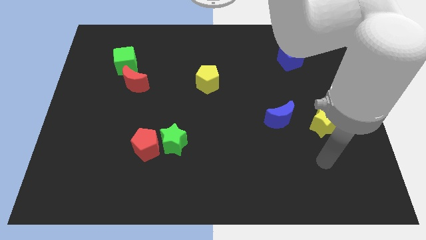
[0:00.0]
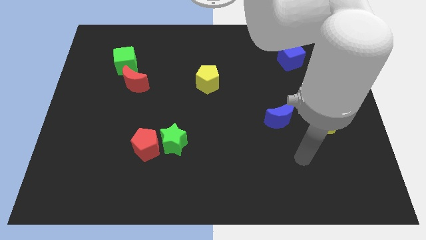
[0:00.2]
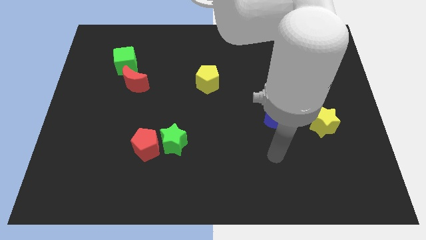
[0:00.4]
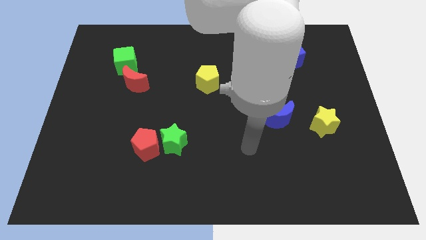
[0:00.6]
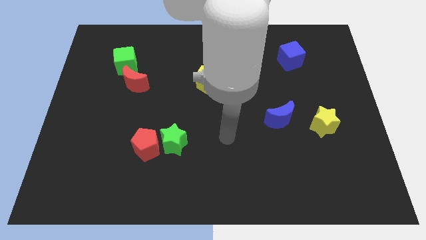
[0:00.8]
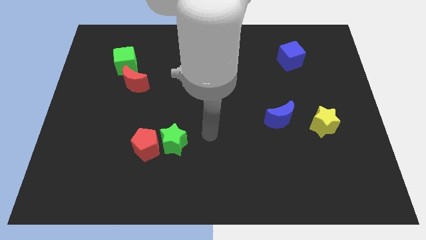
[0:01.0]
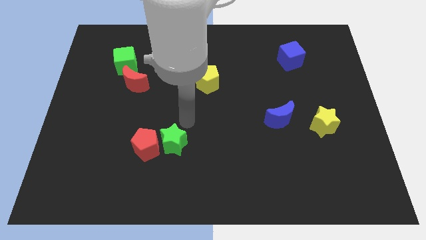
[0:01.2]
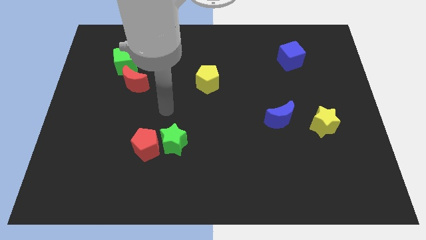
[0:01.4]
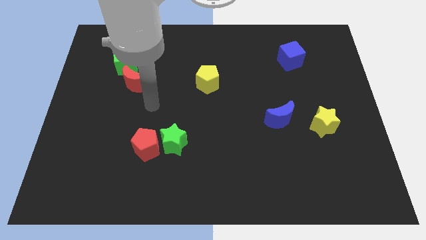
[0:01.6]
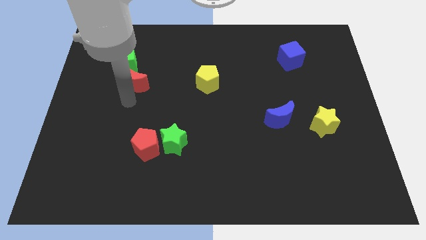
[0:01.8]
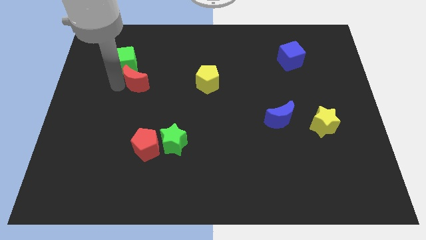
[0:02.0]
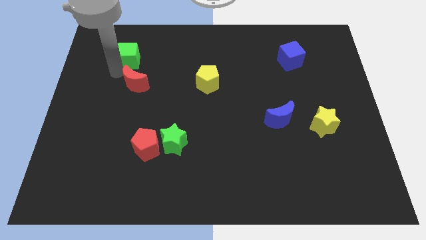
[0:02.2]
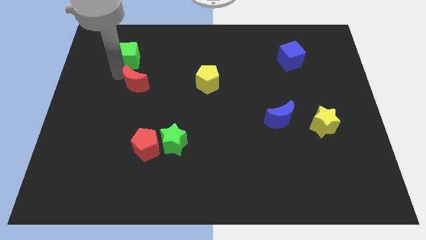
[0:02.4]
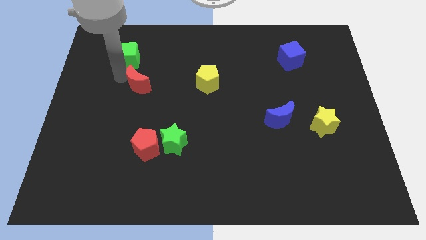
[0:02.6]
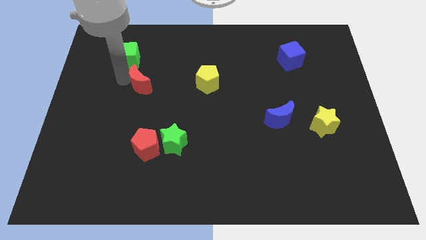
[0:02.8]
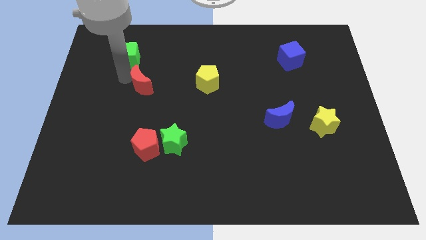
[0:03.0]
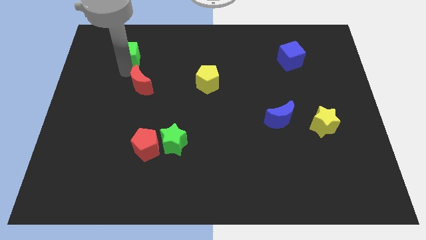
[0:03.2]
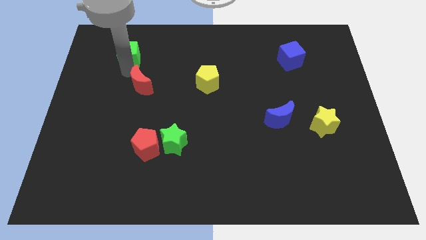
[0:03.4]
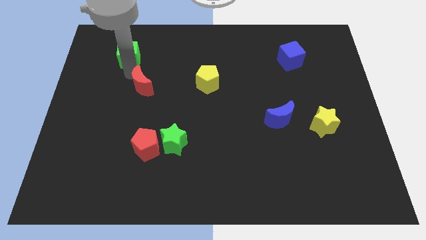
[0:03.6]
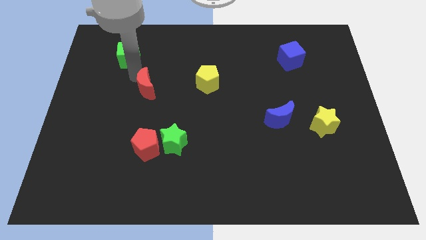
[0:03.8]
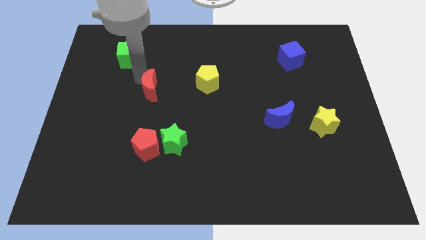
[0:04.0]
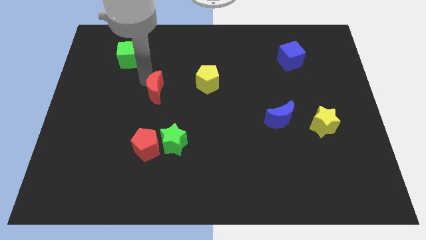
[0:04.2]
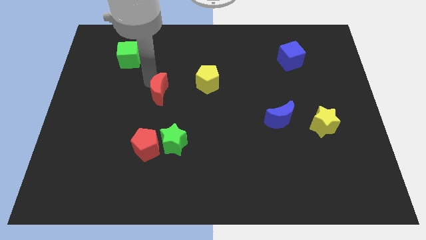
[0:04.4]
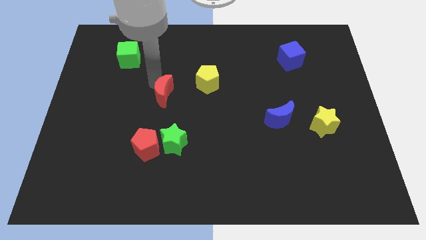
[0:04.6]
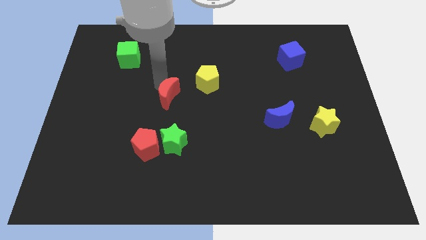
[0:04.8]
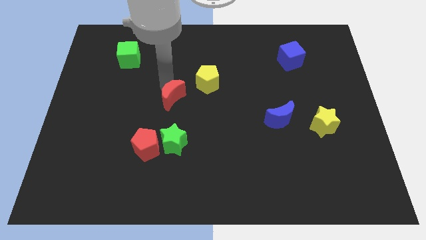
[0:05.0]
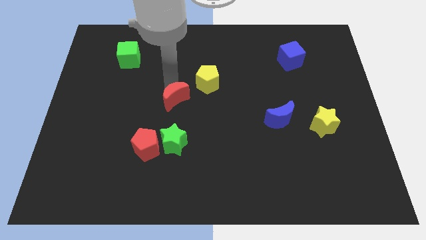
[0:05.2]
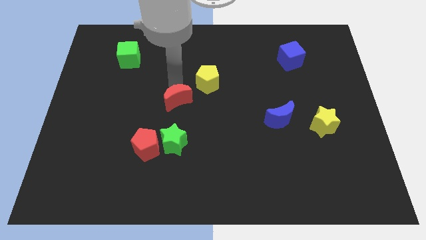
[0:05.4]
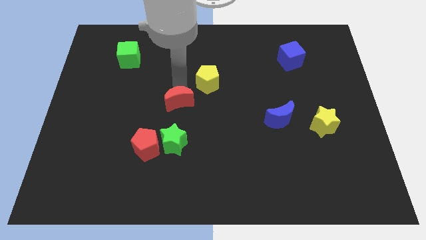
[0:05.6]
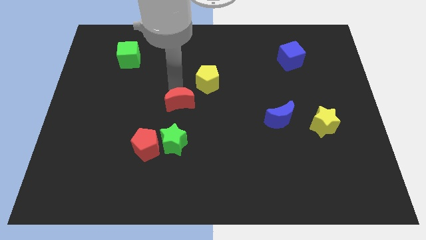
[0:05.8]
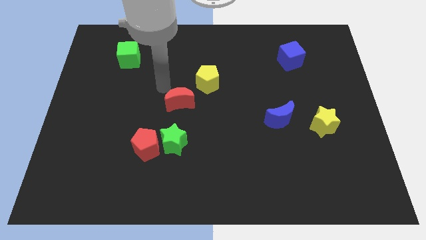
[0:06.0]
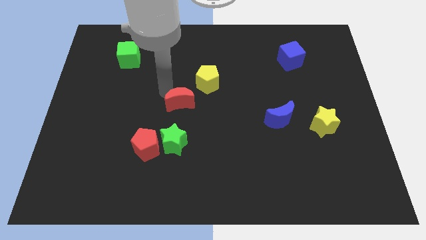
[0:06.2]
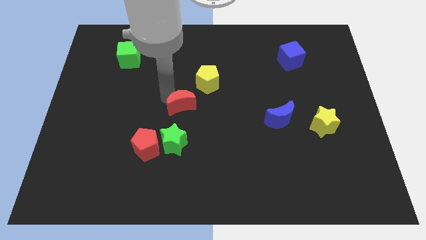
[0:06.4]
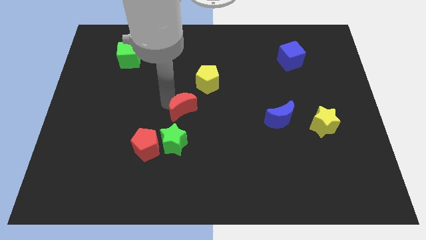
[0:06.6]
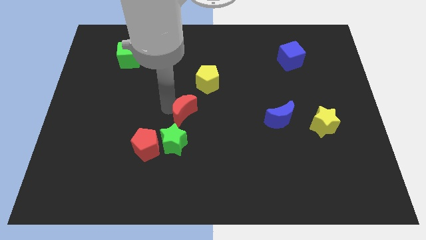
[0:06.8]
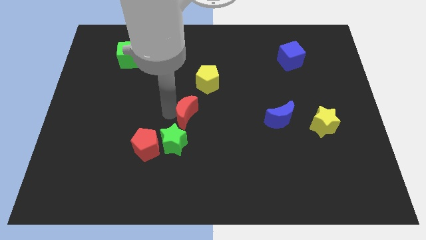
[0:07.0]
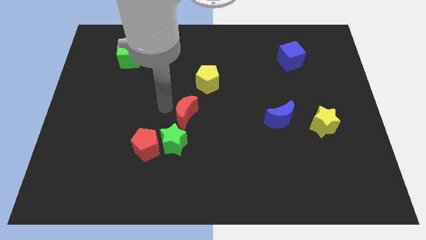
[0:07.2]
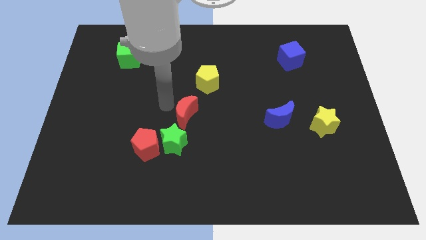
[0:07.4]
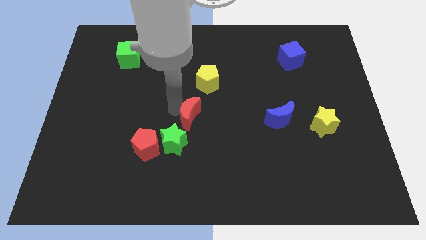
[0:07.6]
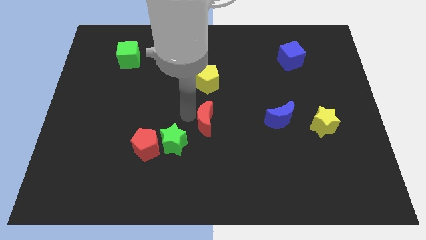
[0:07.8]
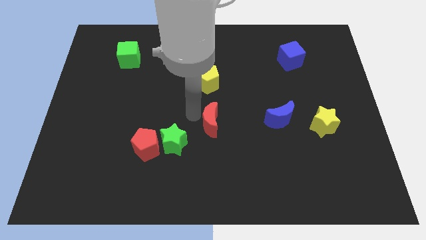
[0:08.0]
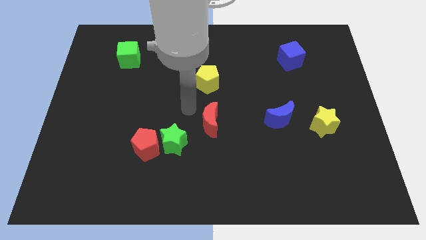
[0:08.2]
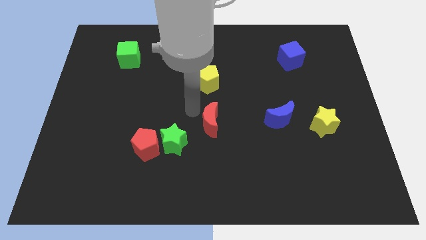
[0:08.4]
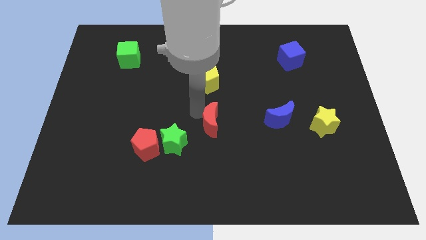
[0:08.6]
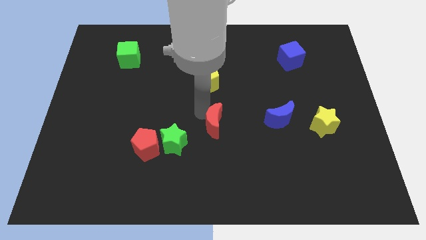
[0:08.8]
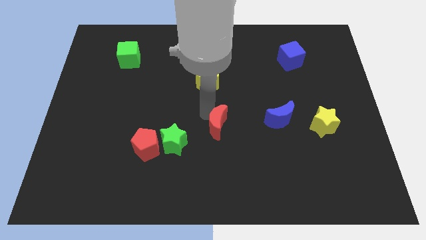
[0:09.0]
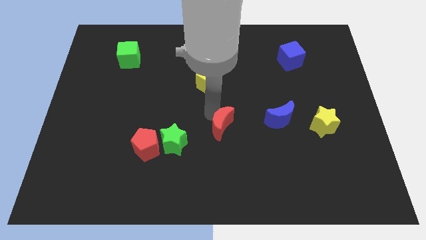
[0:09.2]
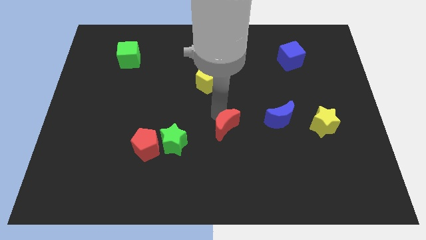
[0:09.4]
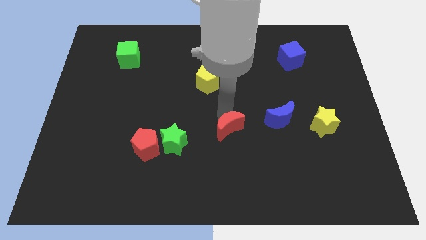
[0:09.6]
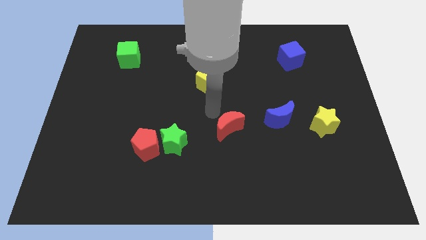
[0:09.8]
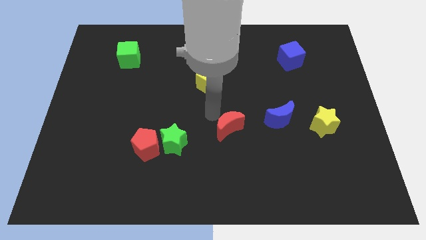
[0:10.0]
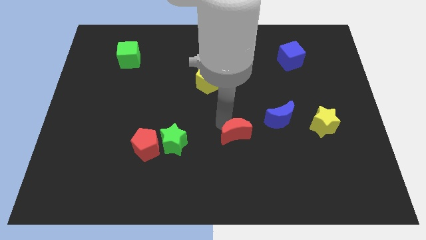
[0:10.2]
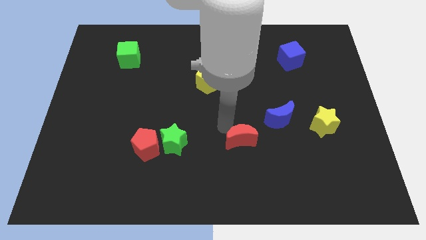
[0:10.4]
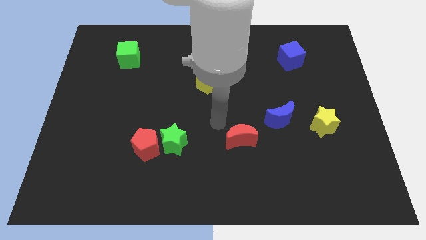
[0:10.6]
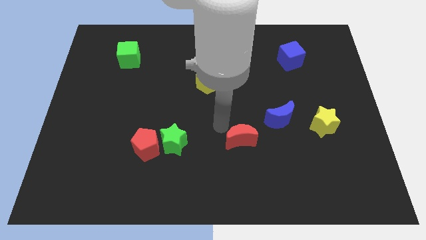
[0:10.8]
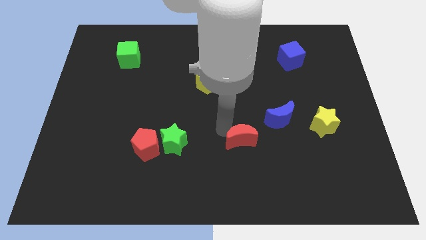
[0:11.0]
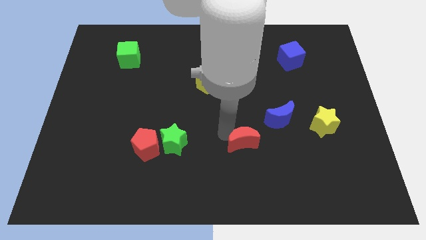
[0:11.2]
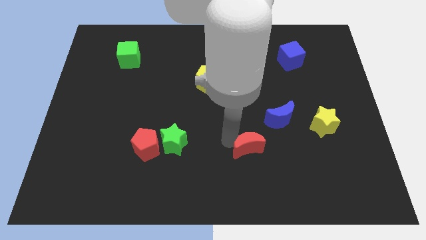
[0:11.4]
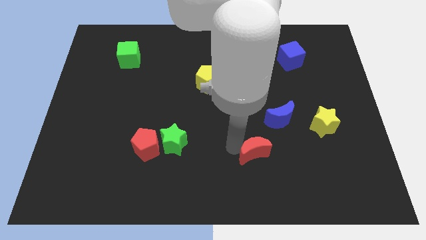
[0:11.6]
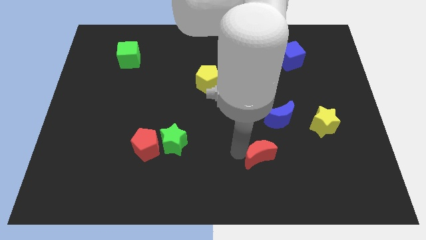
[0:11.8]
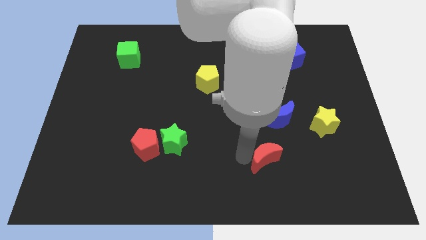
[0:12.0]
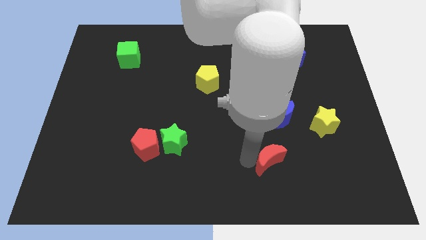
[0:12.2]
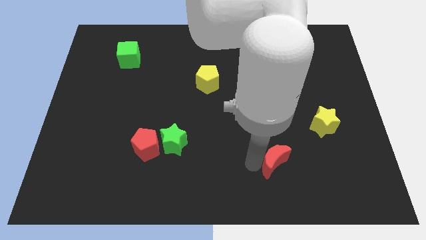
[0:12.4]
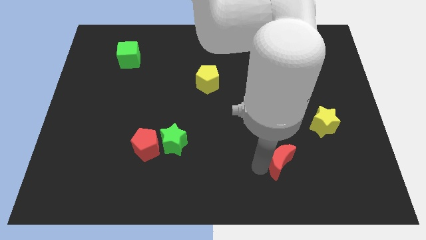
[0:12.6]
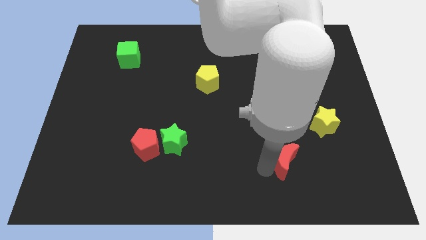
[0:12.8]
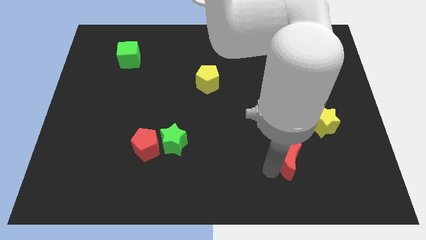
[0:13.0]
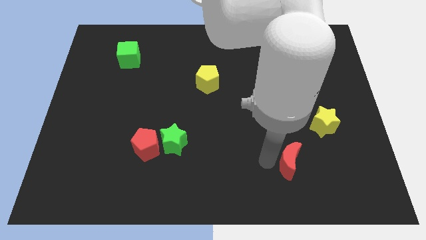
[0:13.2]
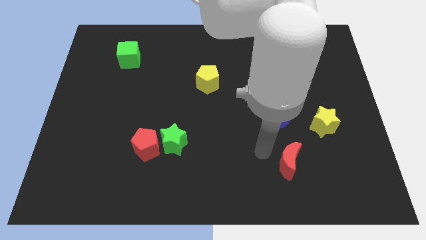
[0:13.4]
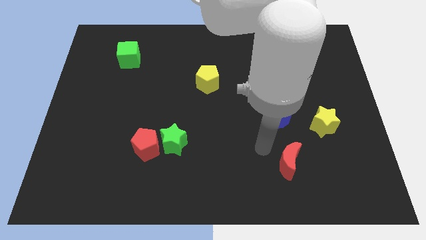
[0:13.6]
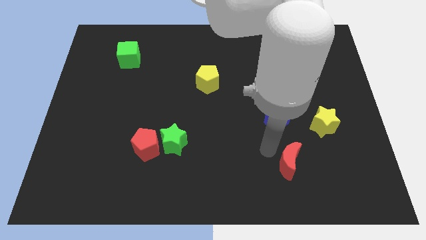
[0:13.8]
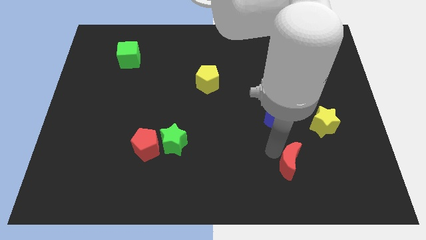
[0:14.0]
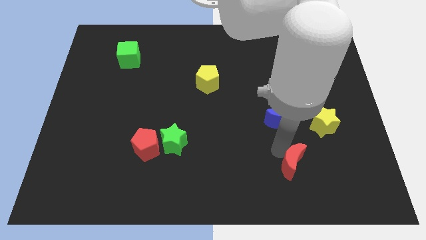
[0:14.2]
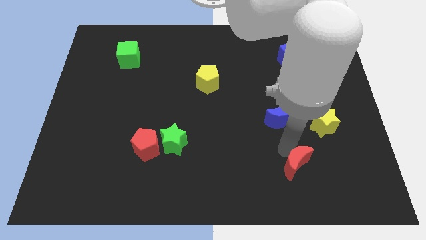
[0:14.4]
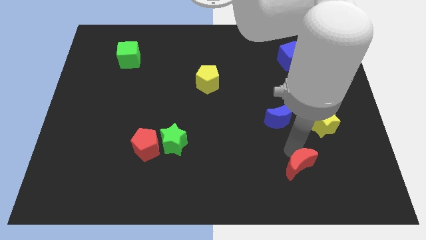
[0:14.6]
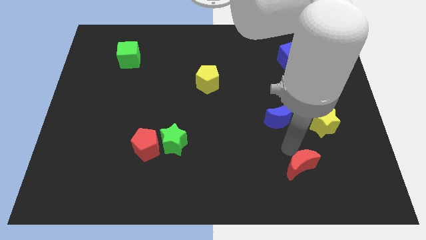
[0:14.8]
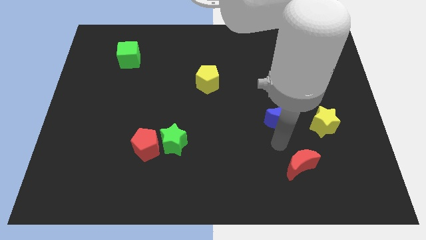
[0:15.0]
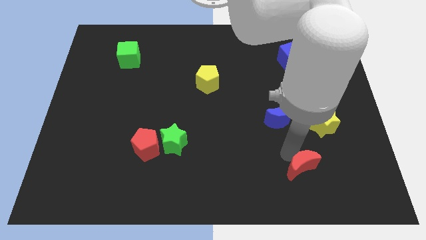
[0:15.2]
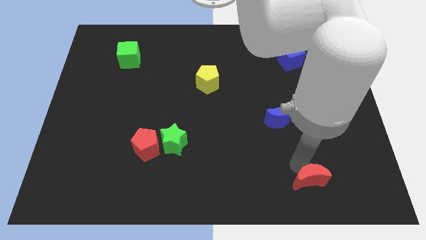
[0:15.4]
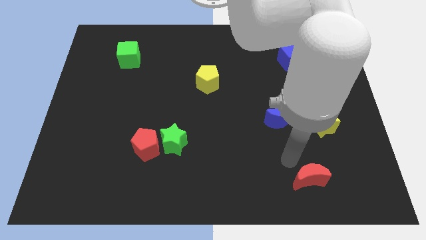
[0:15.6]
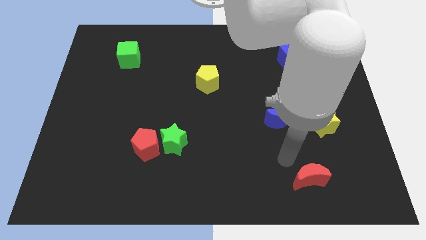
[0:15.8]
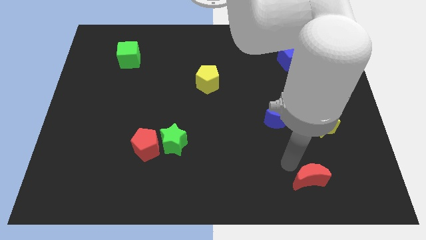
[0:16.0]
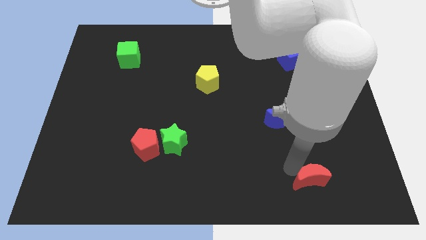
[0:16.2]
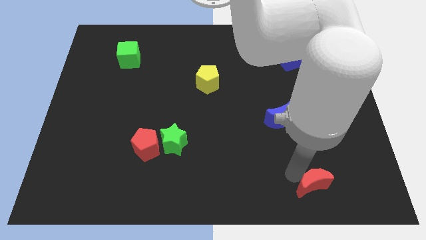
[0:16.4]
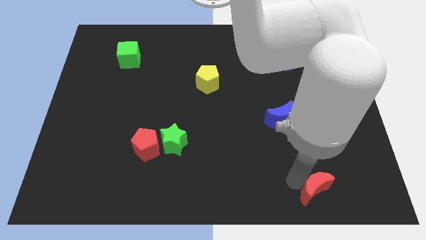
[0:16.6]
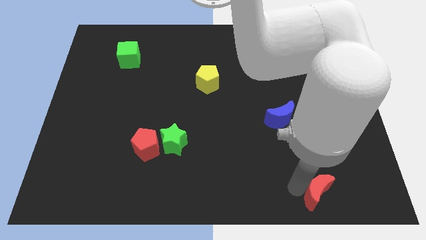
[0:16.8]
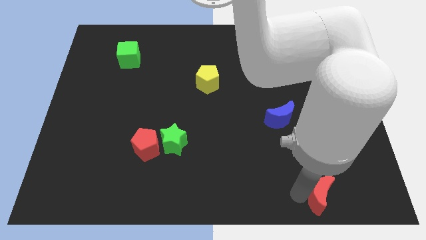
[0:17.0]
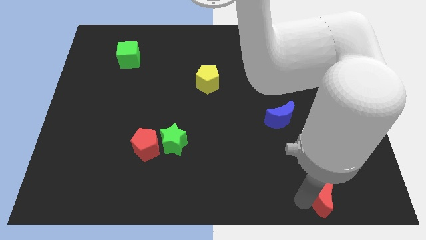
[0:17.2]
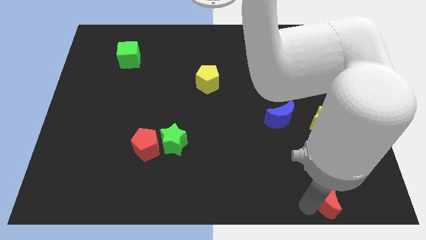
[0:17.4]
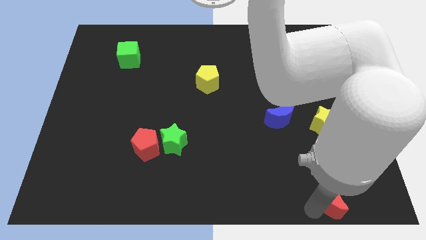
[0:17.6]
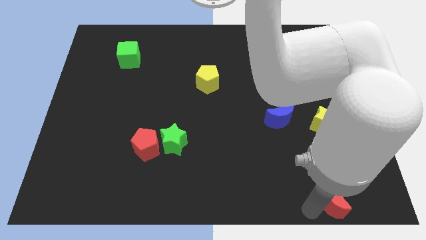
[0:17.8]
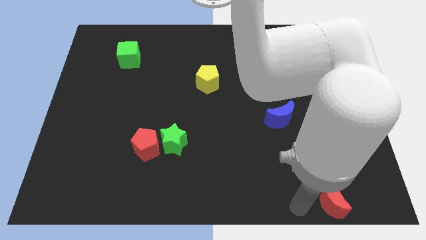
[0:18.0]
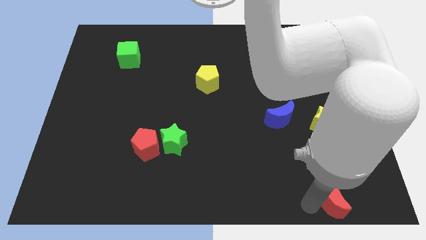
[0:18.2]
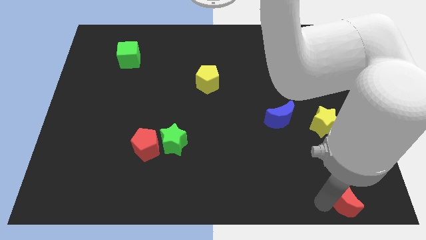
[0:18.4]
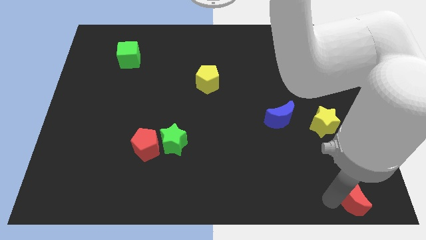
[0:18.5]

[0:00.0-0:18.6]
push the red moon to the bottom right
